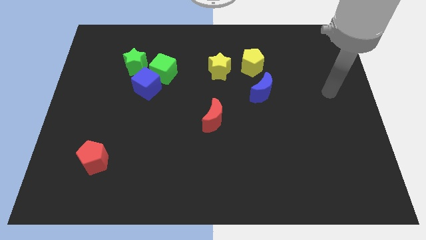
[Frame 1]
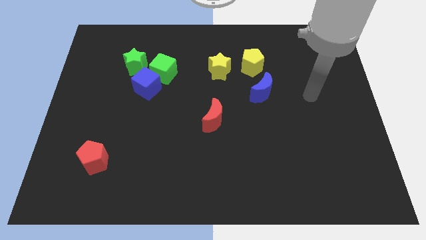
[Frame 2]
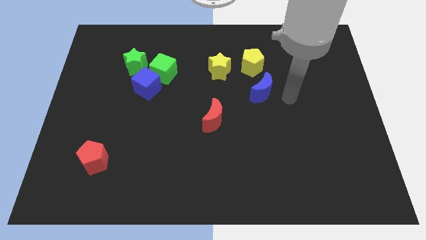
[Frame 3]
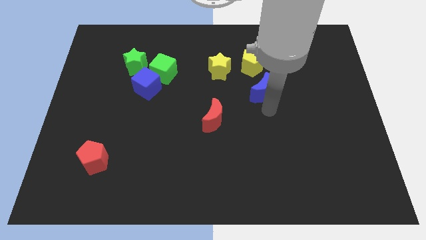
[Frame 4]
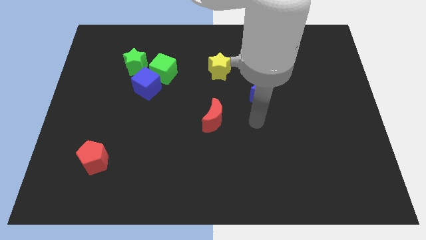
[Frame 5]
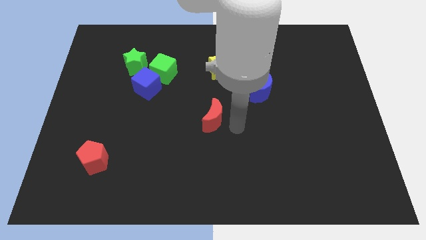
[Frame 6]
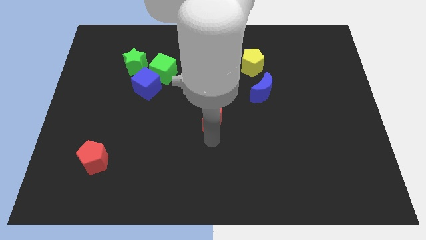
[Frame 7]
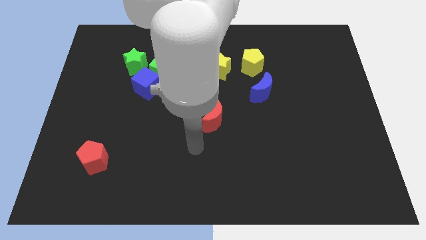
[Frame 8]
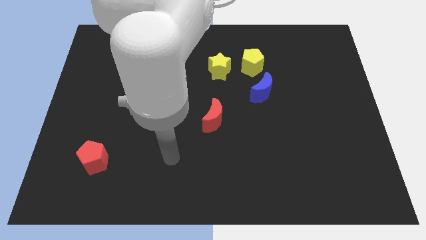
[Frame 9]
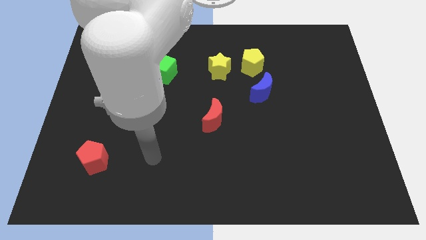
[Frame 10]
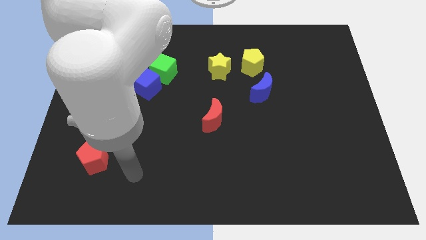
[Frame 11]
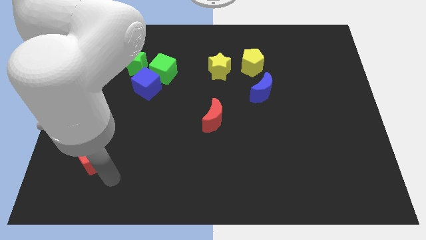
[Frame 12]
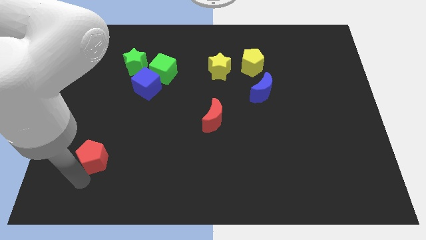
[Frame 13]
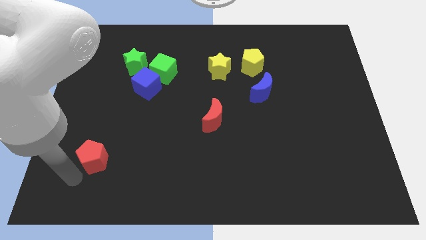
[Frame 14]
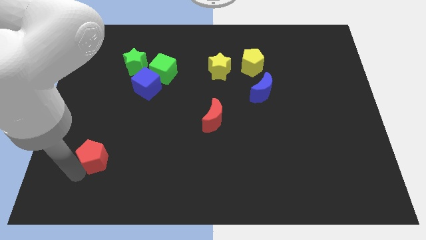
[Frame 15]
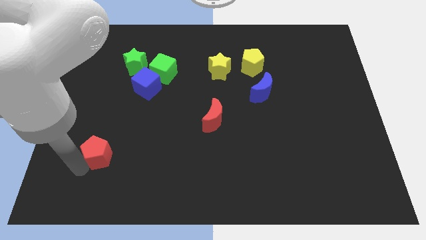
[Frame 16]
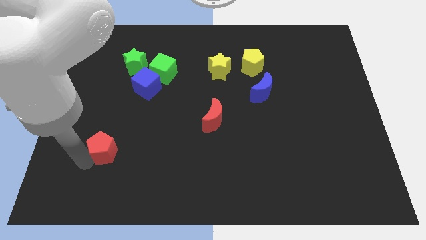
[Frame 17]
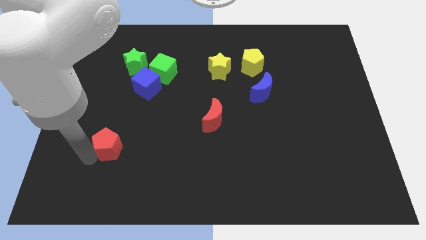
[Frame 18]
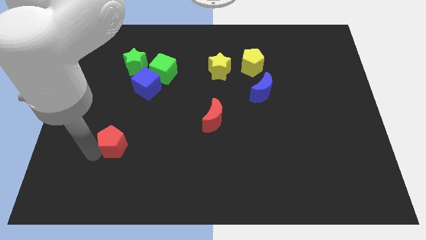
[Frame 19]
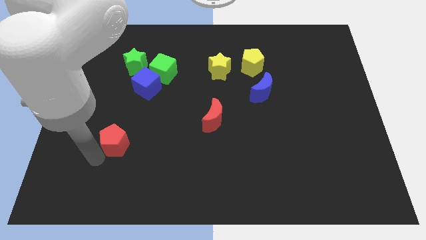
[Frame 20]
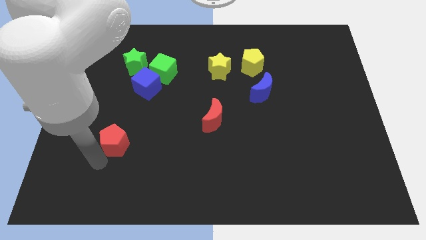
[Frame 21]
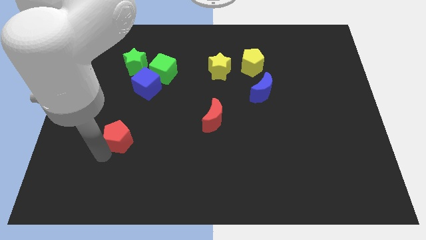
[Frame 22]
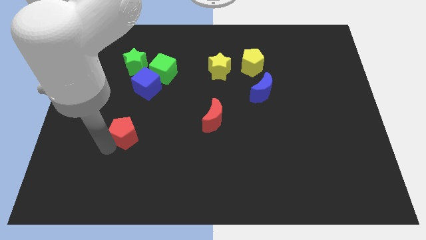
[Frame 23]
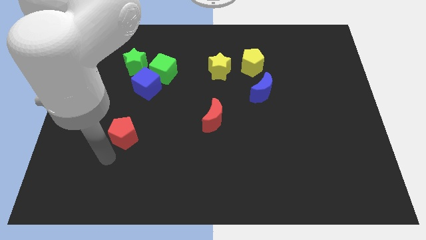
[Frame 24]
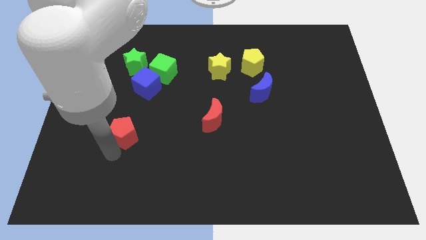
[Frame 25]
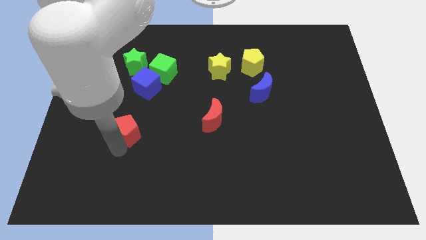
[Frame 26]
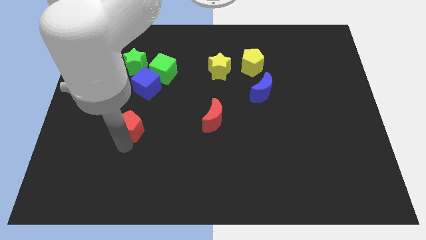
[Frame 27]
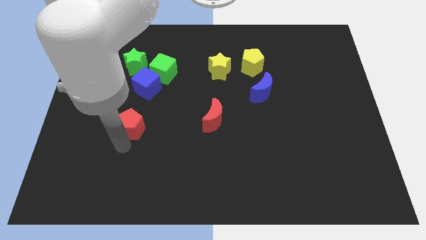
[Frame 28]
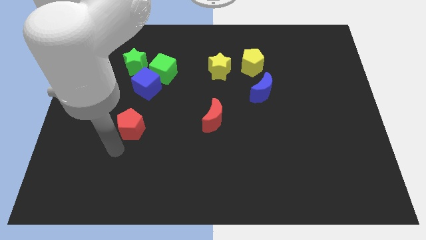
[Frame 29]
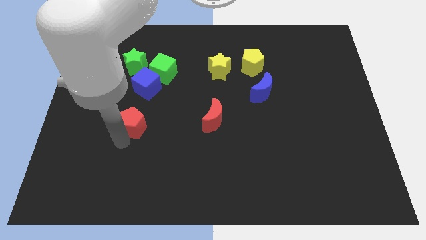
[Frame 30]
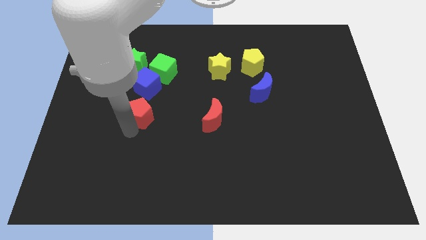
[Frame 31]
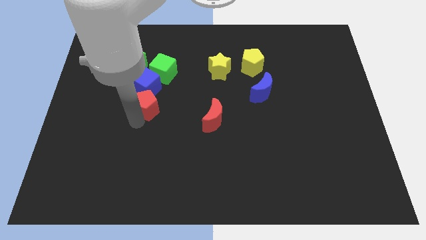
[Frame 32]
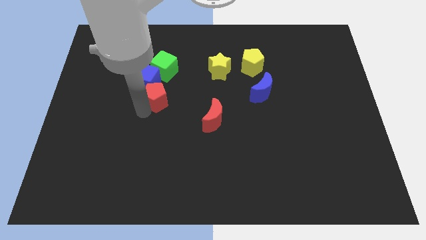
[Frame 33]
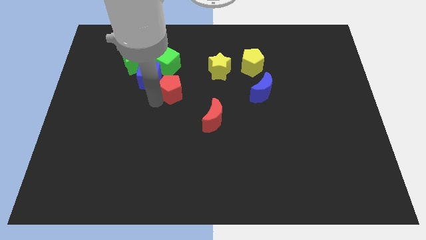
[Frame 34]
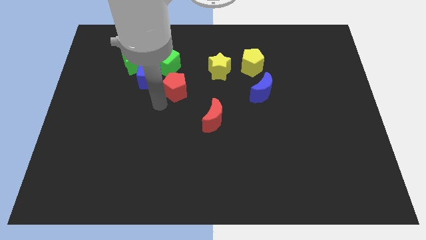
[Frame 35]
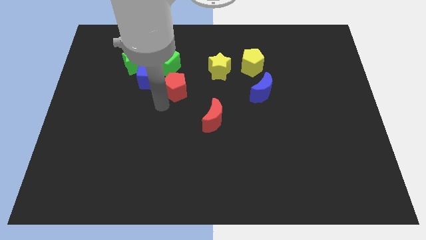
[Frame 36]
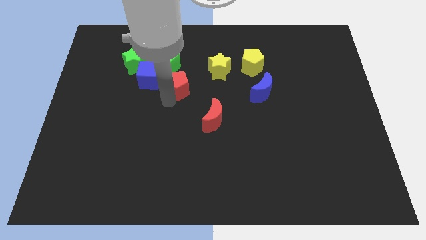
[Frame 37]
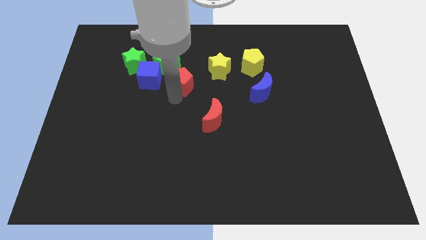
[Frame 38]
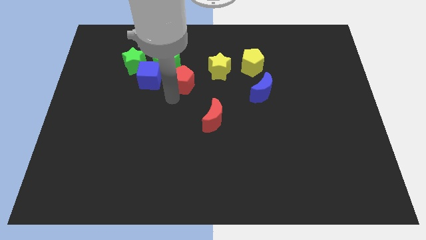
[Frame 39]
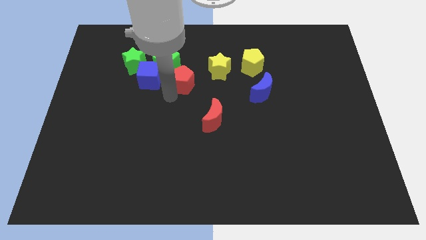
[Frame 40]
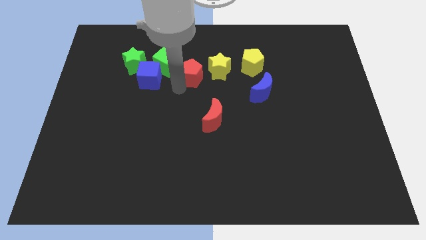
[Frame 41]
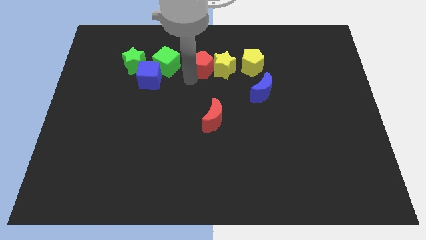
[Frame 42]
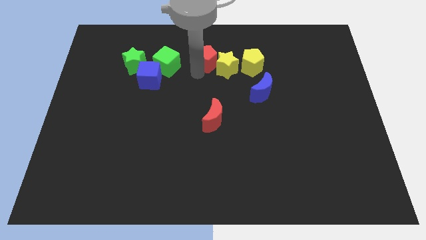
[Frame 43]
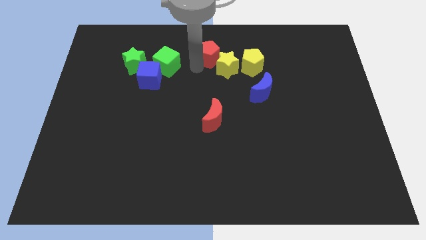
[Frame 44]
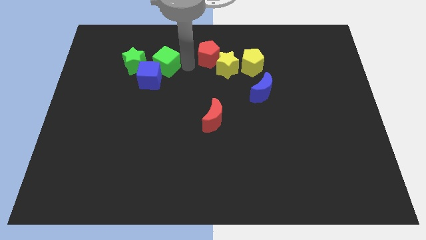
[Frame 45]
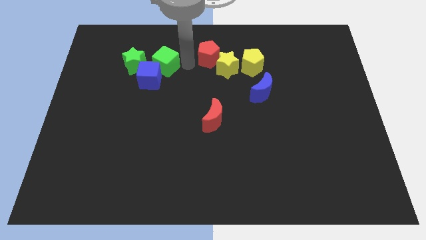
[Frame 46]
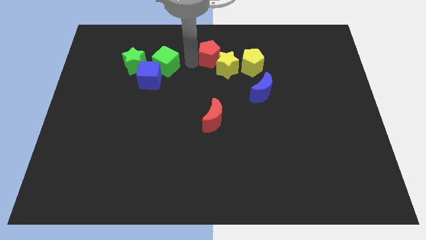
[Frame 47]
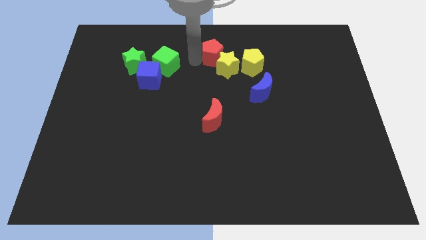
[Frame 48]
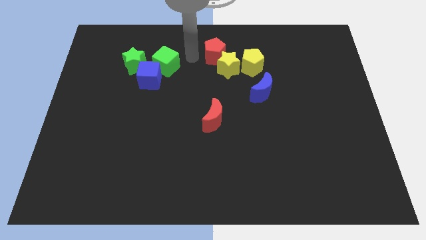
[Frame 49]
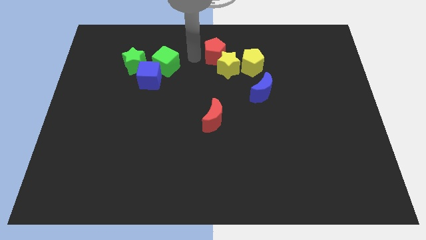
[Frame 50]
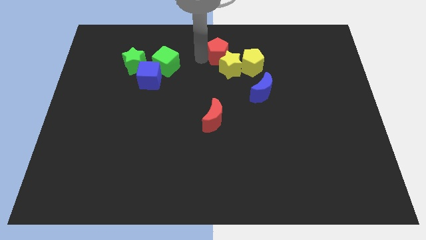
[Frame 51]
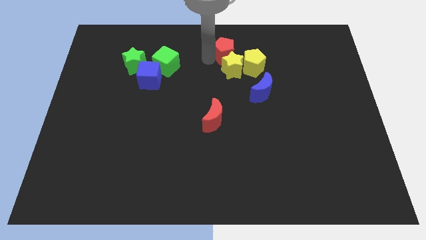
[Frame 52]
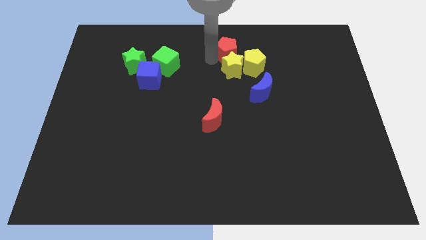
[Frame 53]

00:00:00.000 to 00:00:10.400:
put the red pentagon diagonally up and to the right of the yellow star

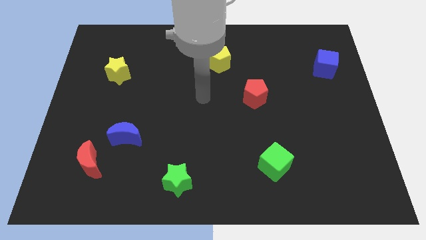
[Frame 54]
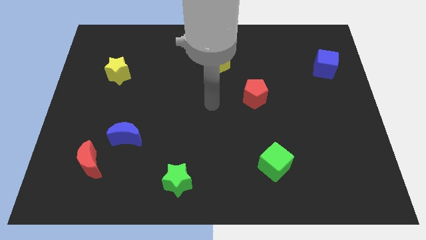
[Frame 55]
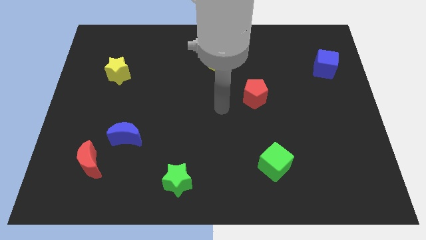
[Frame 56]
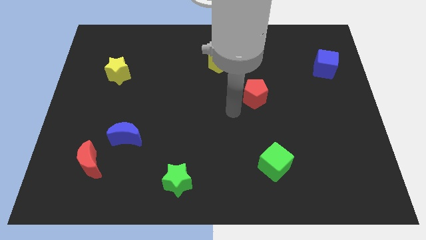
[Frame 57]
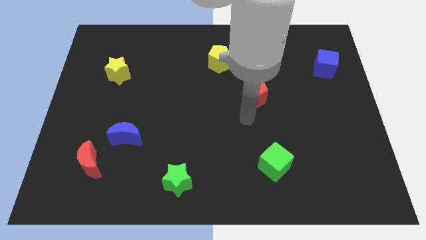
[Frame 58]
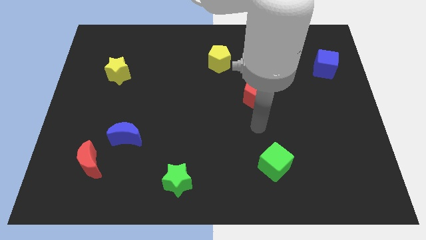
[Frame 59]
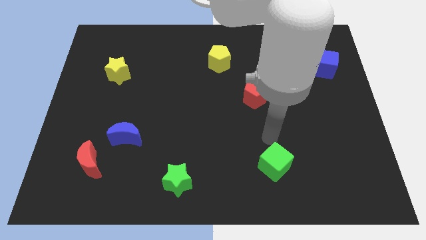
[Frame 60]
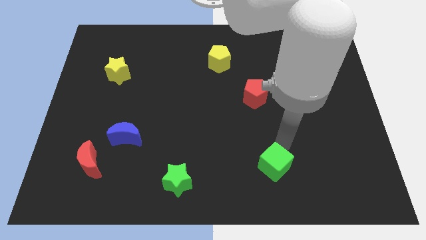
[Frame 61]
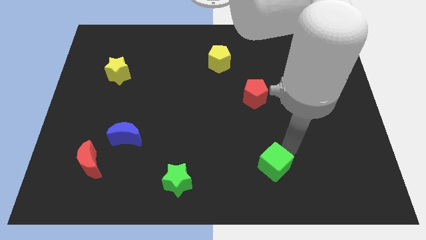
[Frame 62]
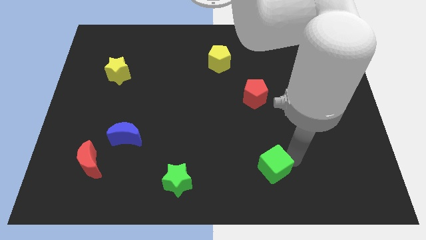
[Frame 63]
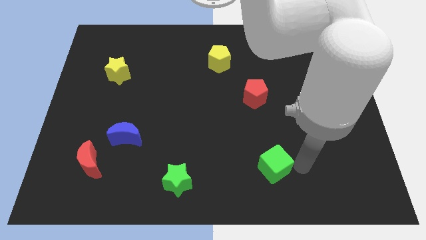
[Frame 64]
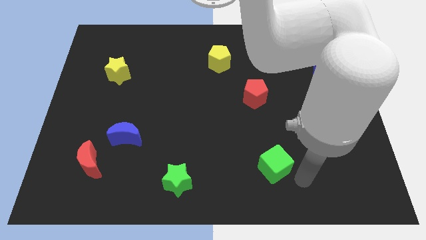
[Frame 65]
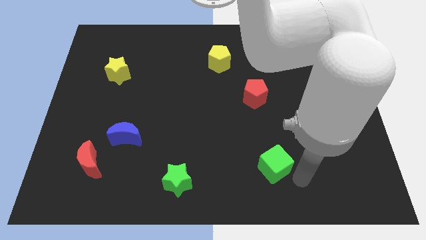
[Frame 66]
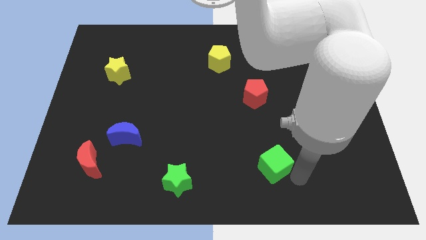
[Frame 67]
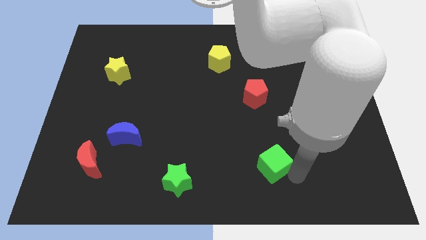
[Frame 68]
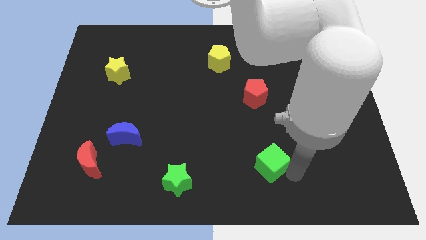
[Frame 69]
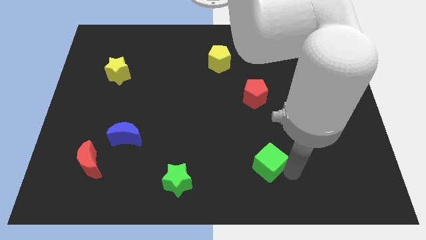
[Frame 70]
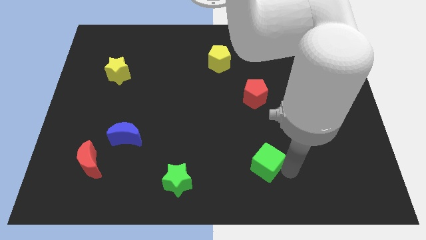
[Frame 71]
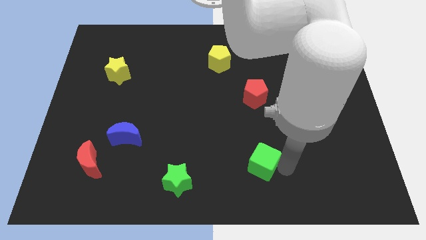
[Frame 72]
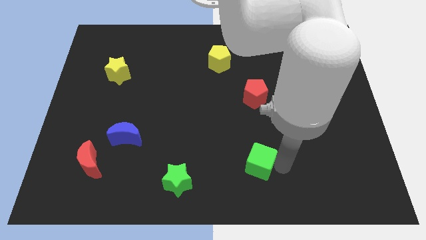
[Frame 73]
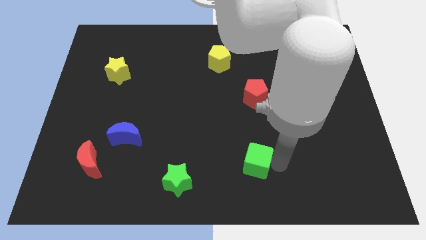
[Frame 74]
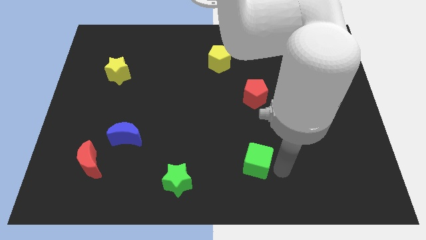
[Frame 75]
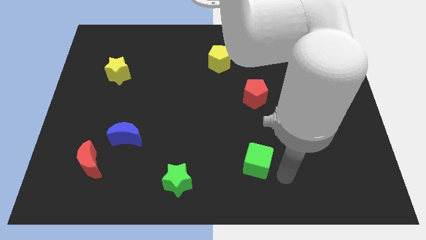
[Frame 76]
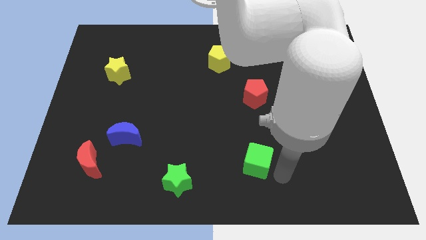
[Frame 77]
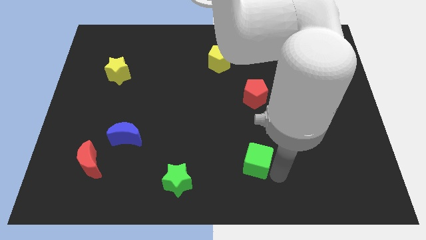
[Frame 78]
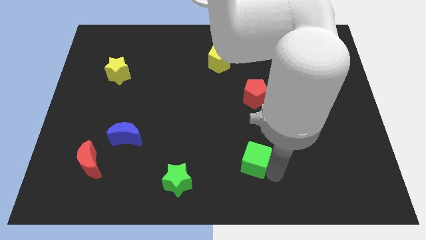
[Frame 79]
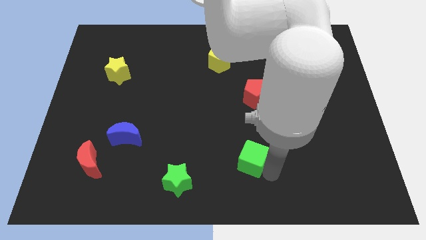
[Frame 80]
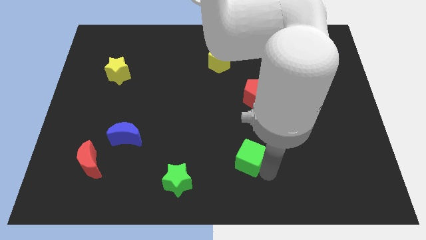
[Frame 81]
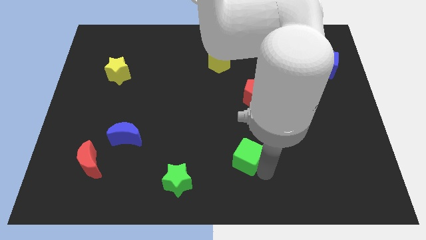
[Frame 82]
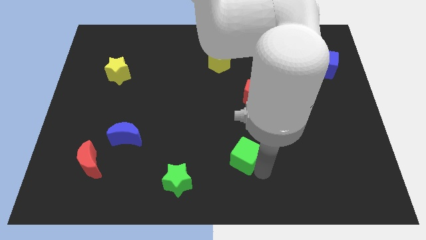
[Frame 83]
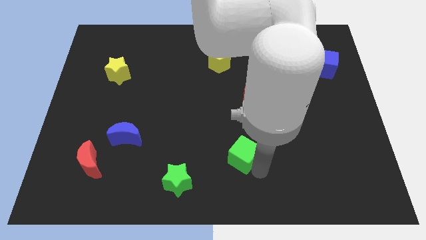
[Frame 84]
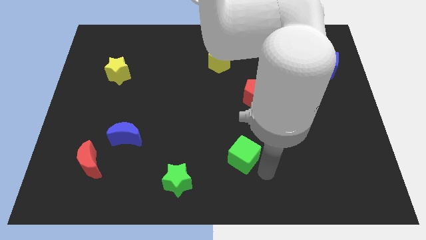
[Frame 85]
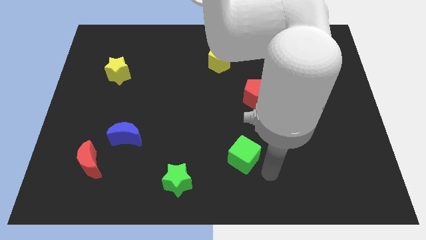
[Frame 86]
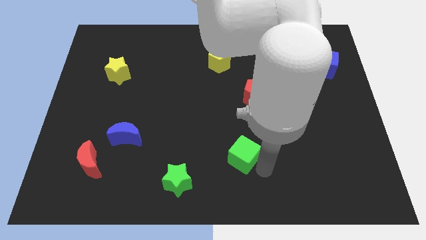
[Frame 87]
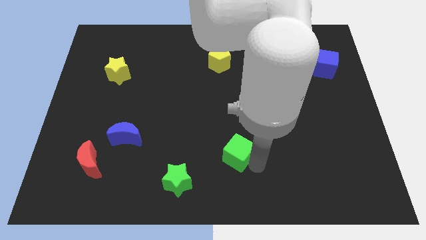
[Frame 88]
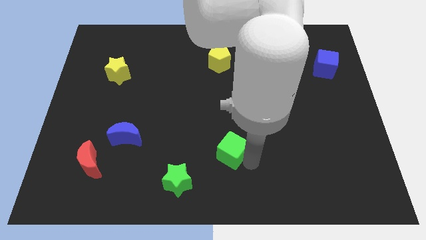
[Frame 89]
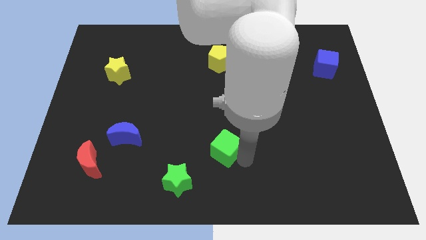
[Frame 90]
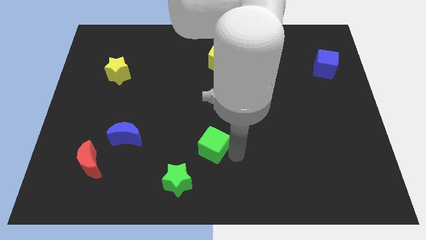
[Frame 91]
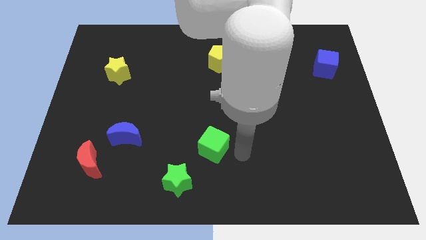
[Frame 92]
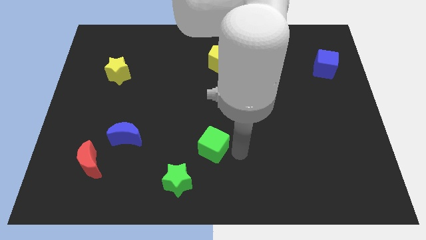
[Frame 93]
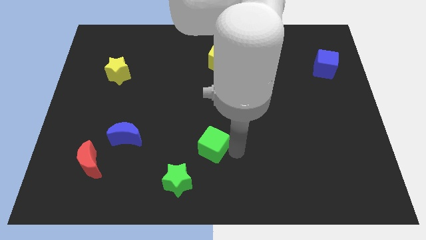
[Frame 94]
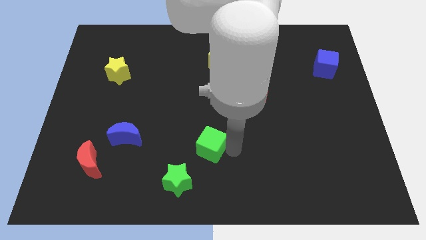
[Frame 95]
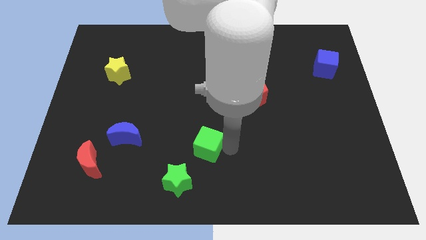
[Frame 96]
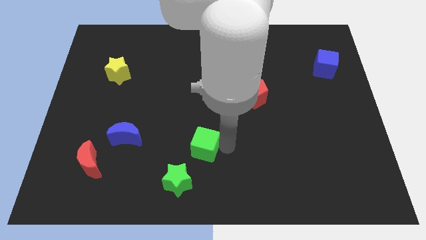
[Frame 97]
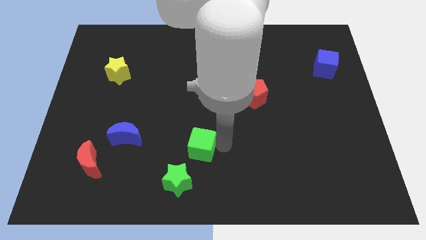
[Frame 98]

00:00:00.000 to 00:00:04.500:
move the green cube above the green star
